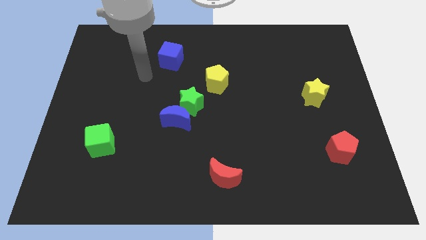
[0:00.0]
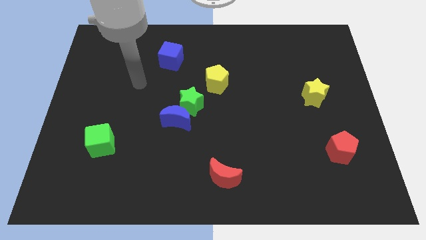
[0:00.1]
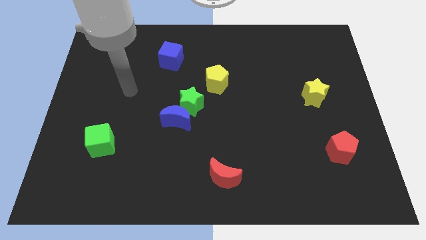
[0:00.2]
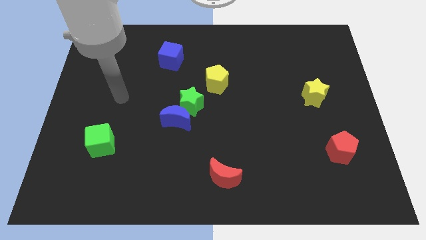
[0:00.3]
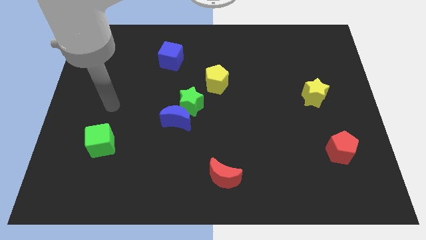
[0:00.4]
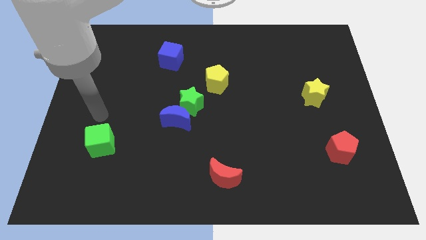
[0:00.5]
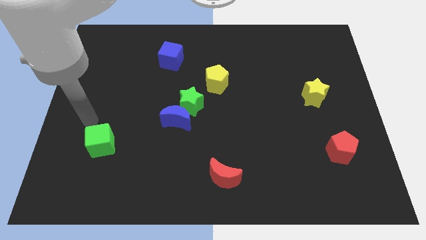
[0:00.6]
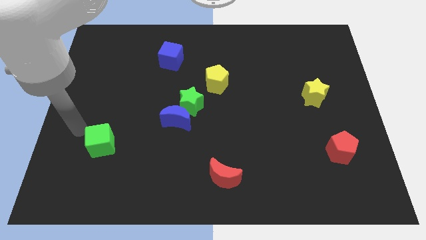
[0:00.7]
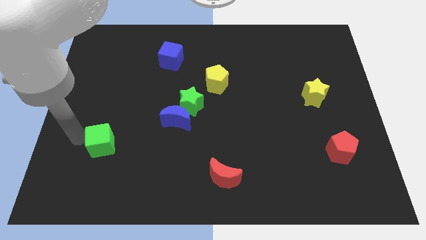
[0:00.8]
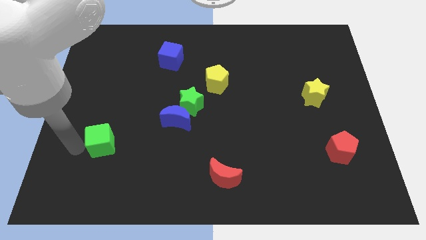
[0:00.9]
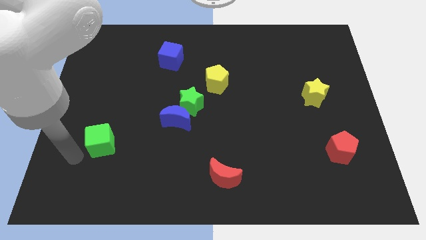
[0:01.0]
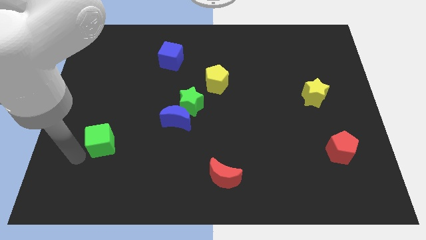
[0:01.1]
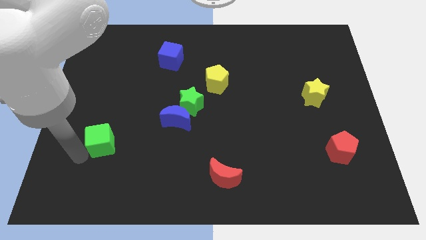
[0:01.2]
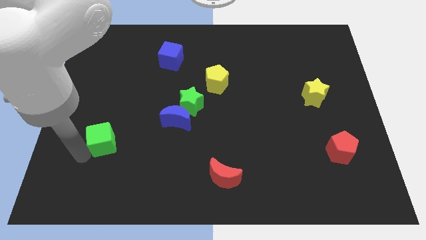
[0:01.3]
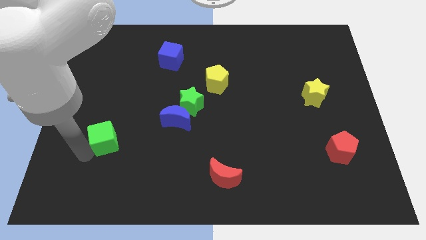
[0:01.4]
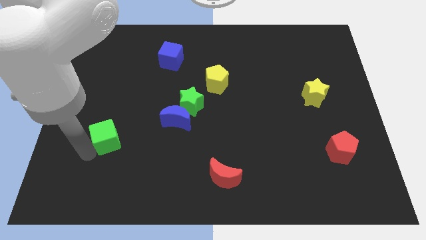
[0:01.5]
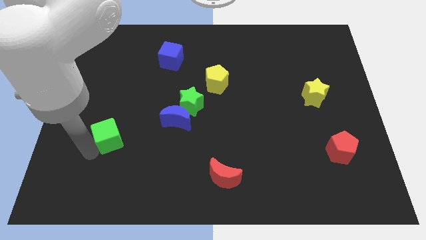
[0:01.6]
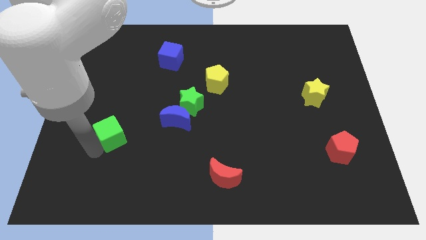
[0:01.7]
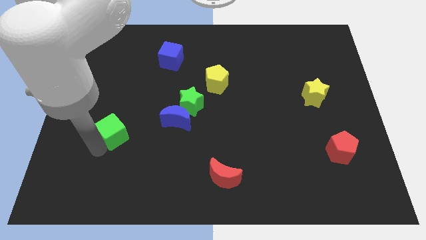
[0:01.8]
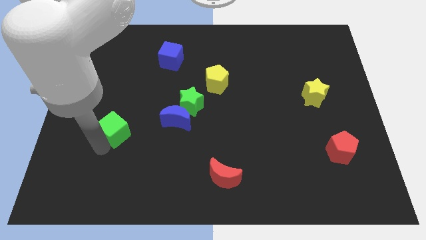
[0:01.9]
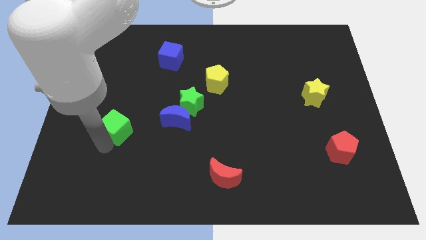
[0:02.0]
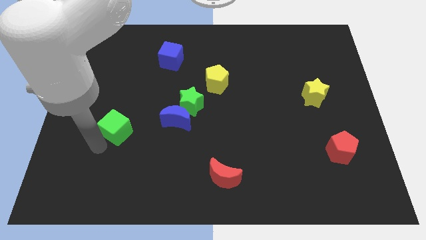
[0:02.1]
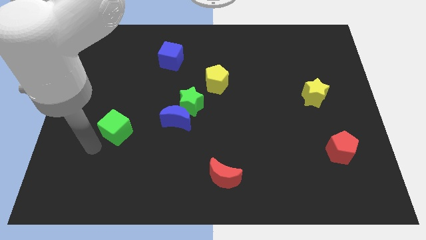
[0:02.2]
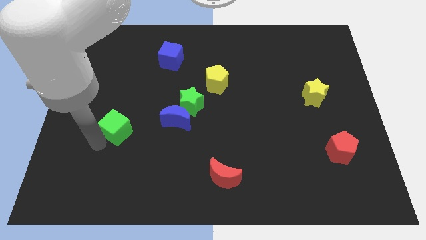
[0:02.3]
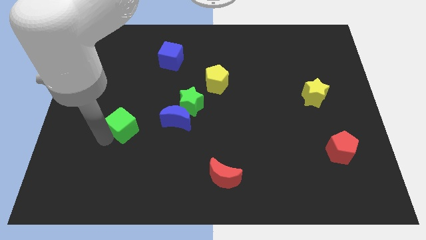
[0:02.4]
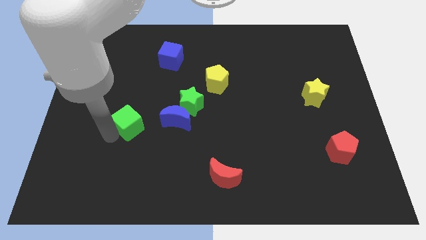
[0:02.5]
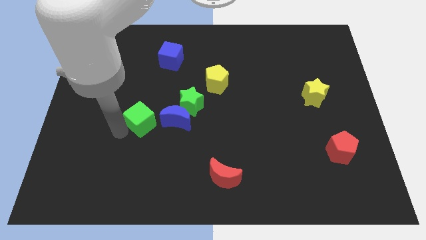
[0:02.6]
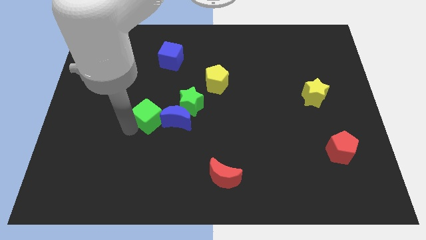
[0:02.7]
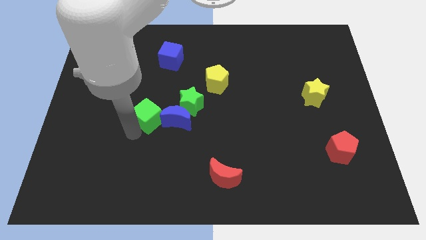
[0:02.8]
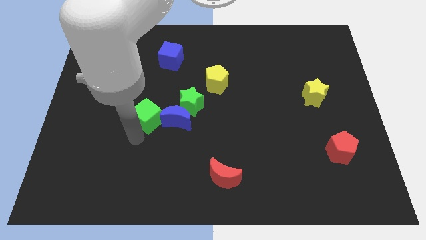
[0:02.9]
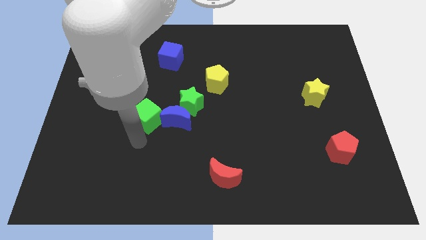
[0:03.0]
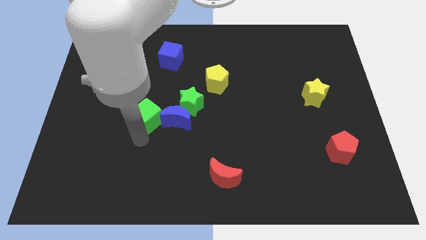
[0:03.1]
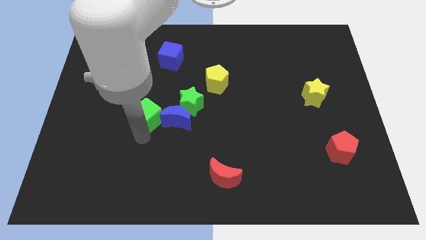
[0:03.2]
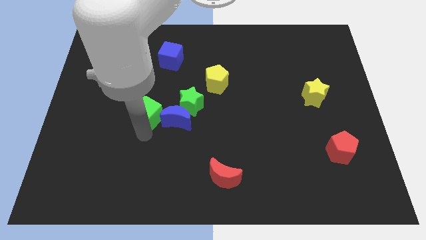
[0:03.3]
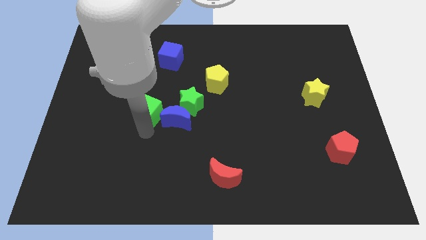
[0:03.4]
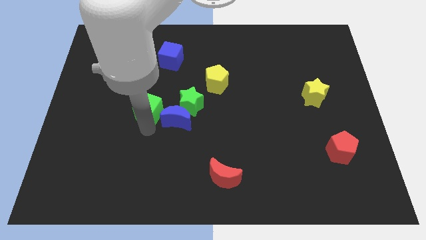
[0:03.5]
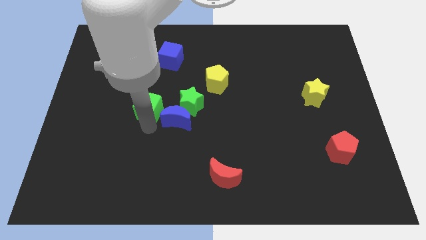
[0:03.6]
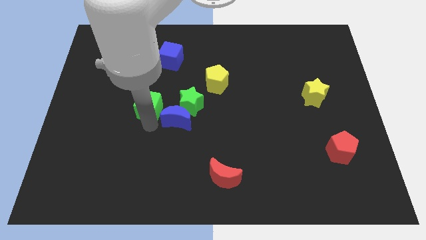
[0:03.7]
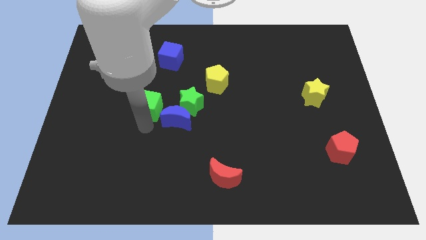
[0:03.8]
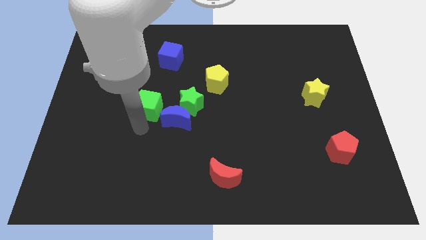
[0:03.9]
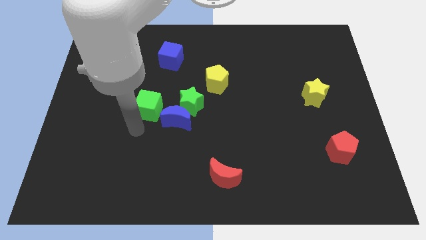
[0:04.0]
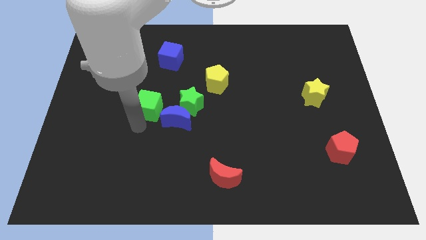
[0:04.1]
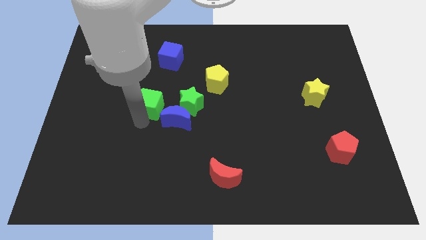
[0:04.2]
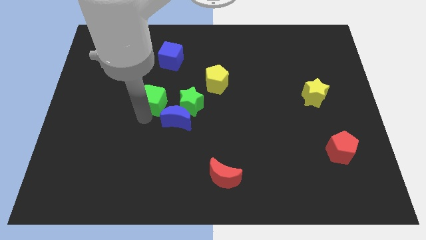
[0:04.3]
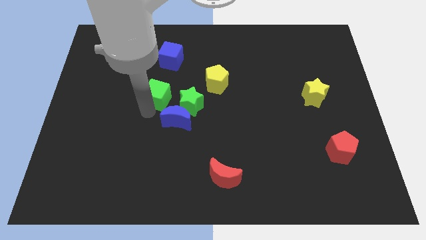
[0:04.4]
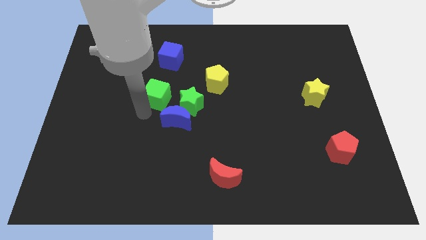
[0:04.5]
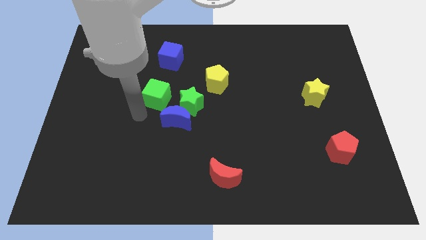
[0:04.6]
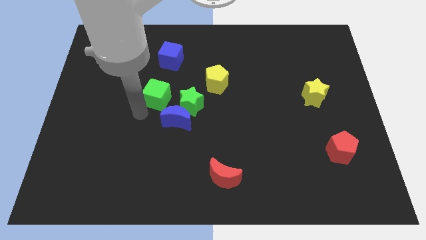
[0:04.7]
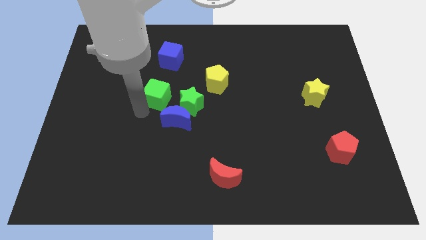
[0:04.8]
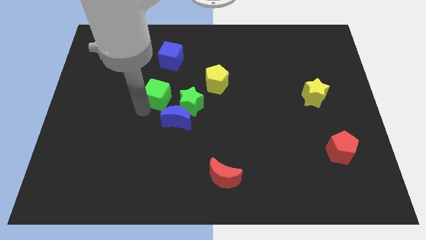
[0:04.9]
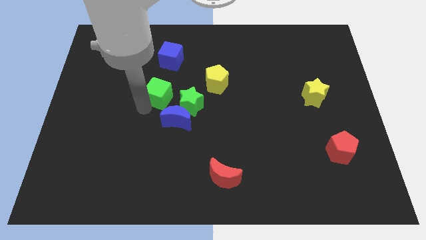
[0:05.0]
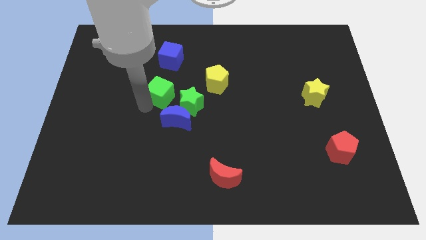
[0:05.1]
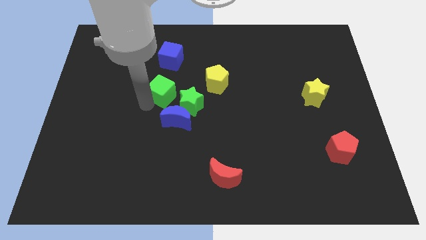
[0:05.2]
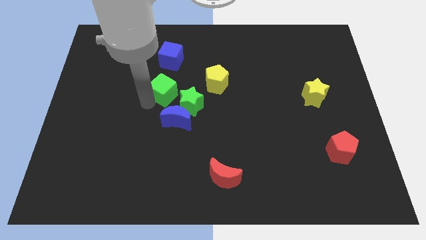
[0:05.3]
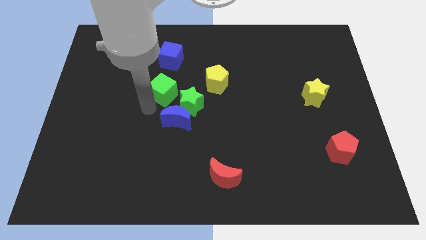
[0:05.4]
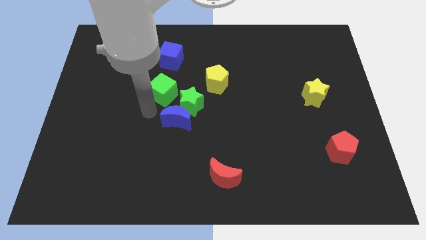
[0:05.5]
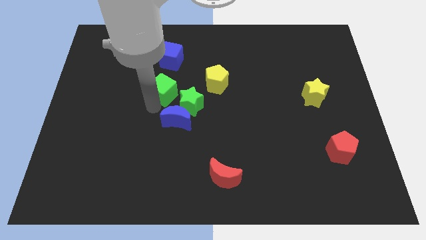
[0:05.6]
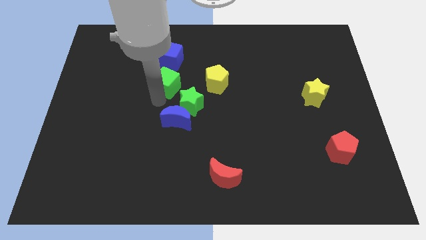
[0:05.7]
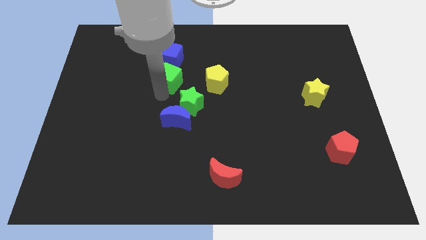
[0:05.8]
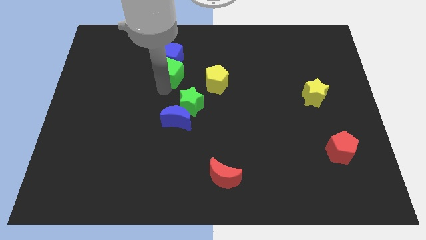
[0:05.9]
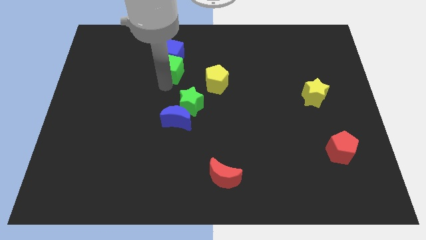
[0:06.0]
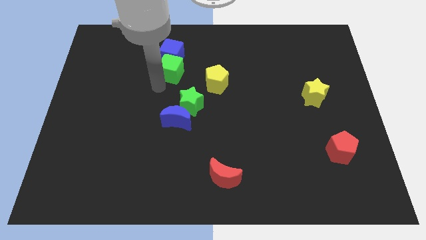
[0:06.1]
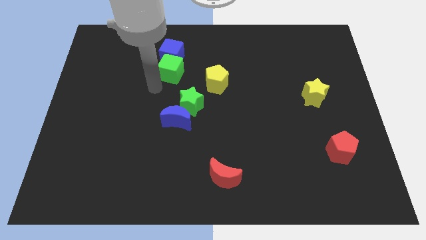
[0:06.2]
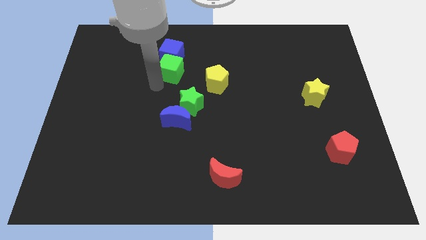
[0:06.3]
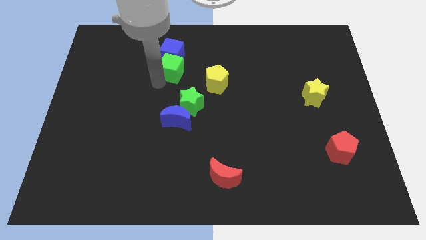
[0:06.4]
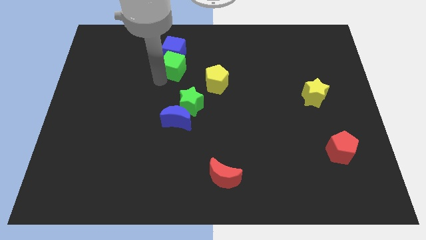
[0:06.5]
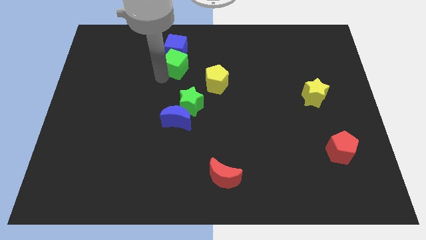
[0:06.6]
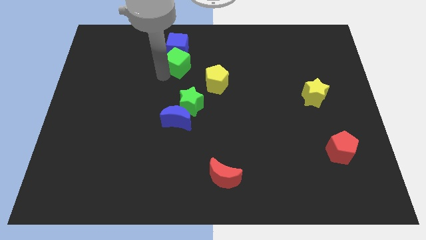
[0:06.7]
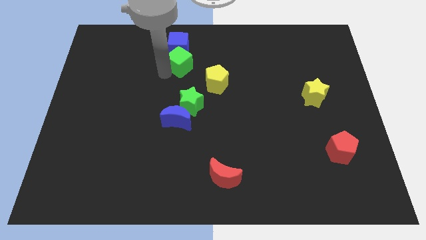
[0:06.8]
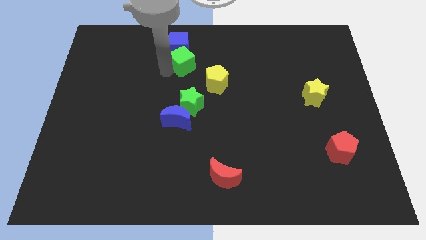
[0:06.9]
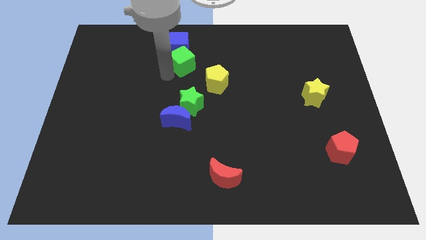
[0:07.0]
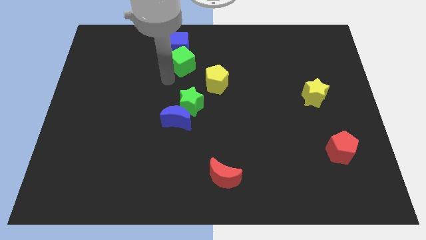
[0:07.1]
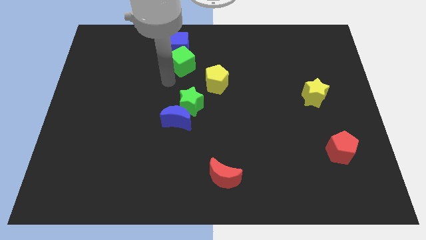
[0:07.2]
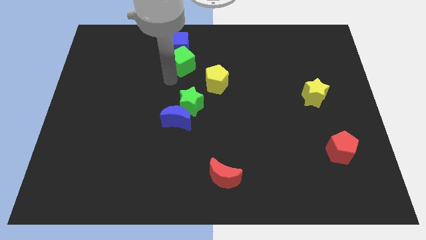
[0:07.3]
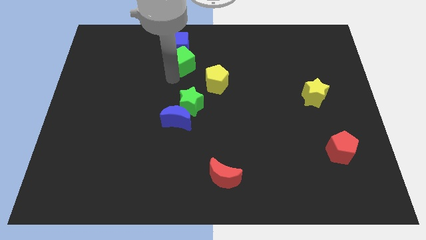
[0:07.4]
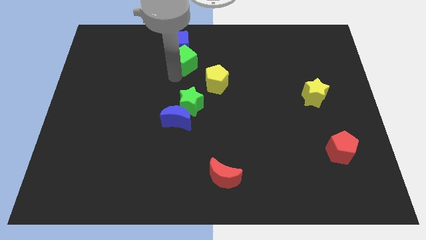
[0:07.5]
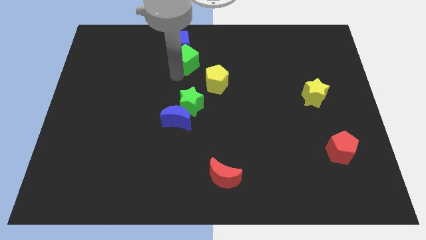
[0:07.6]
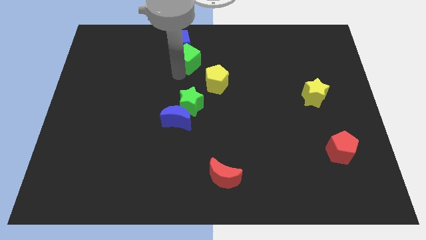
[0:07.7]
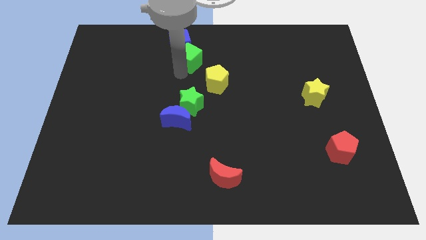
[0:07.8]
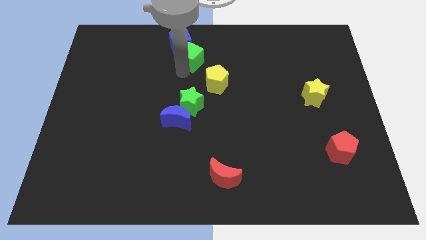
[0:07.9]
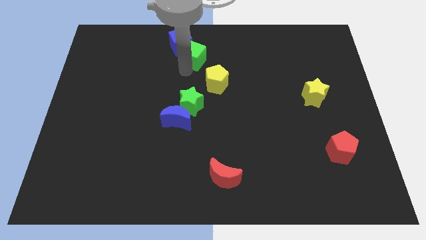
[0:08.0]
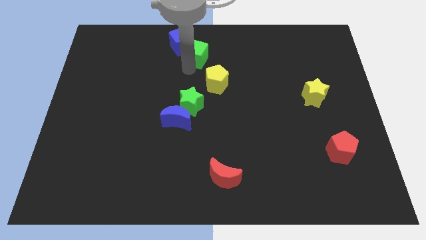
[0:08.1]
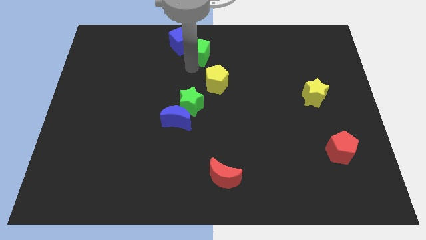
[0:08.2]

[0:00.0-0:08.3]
slide the green cube to the top side
